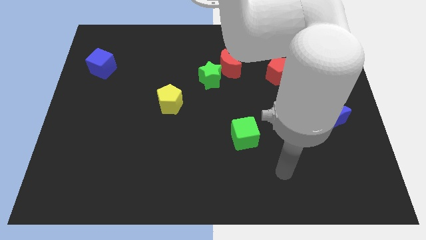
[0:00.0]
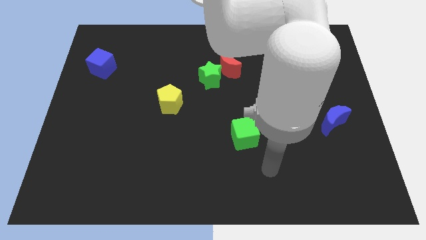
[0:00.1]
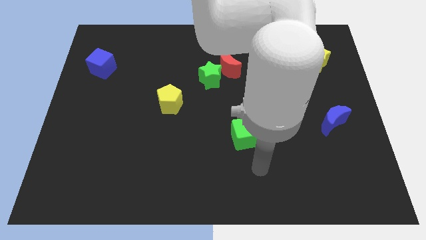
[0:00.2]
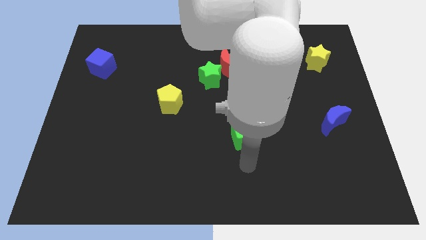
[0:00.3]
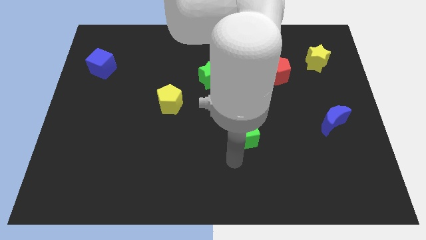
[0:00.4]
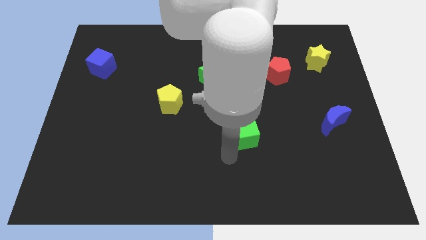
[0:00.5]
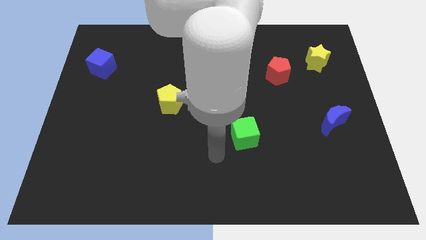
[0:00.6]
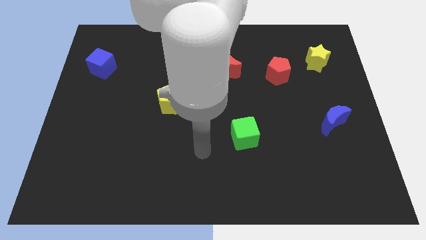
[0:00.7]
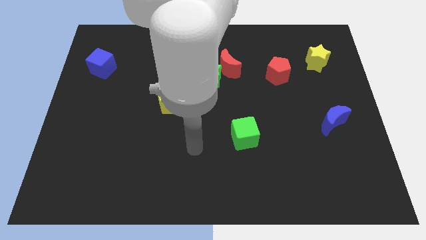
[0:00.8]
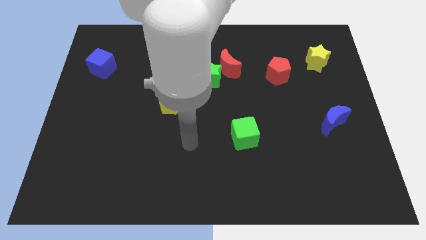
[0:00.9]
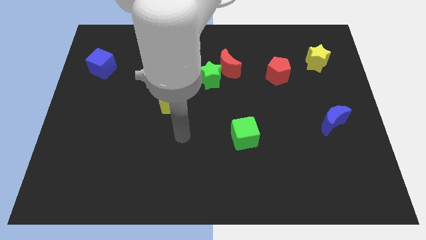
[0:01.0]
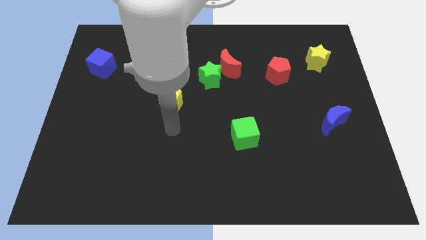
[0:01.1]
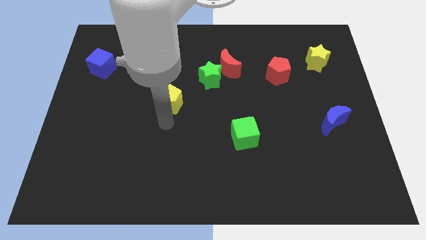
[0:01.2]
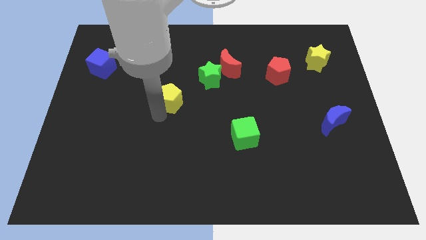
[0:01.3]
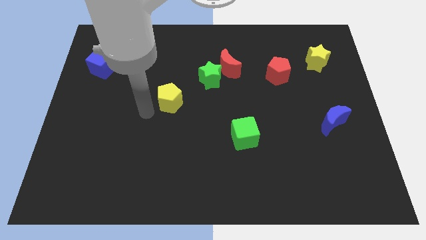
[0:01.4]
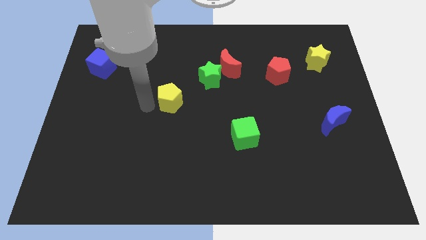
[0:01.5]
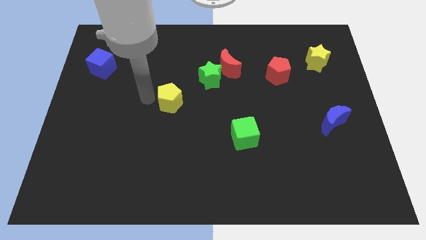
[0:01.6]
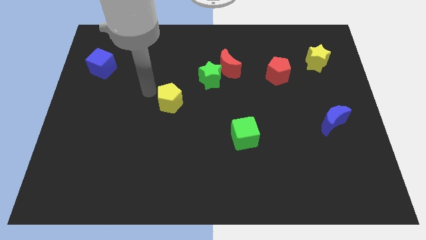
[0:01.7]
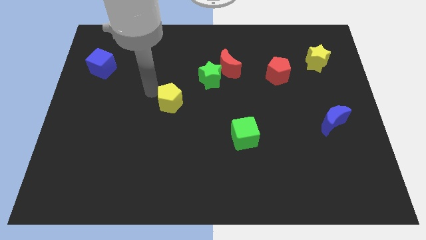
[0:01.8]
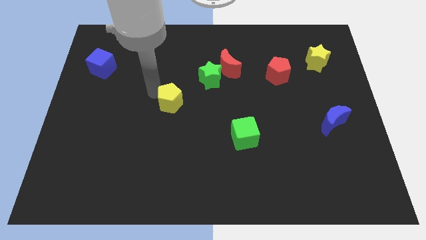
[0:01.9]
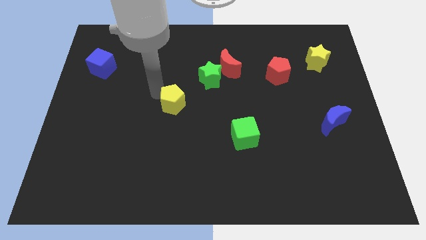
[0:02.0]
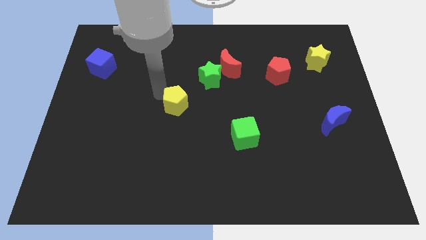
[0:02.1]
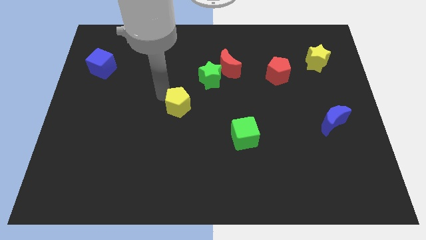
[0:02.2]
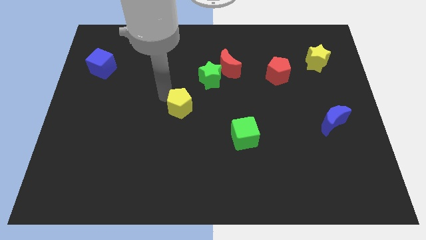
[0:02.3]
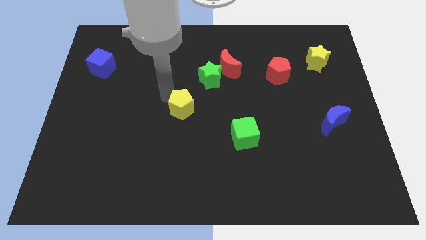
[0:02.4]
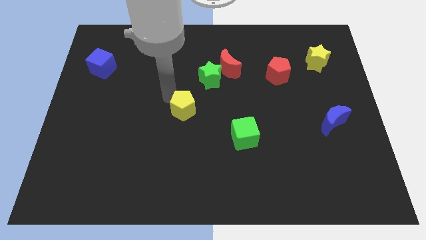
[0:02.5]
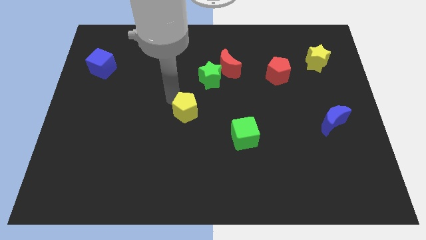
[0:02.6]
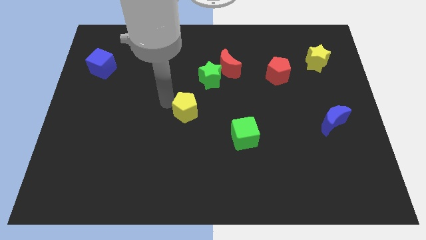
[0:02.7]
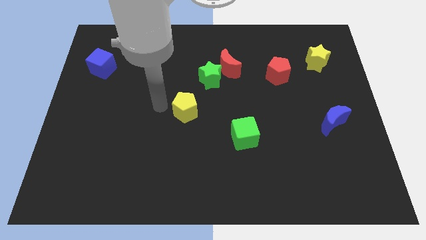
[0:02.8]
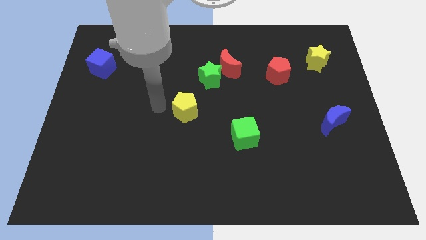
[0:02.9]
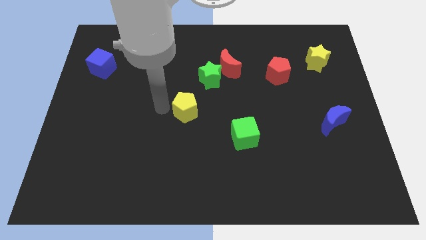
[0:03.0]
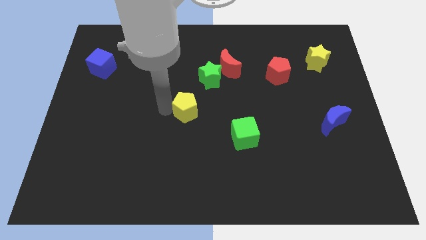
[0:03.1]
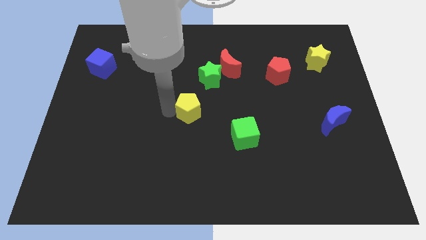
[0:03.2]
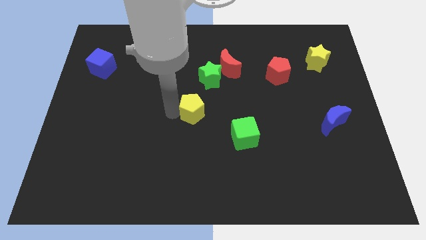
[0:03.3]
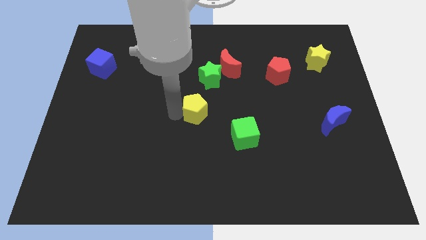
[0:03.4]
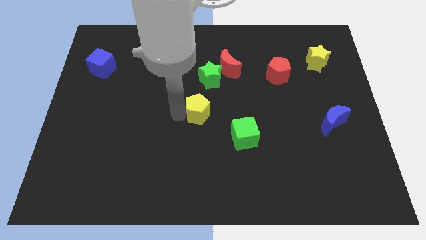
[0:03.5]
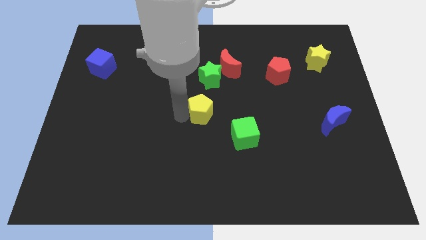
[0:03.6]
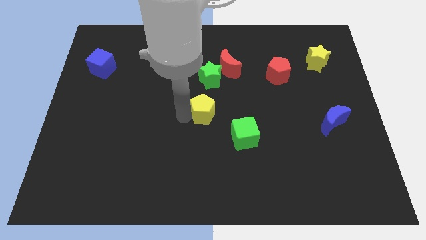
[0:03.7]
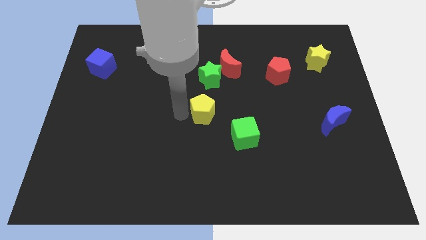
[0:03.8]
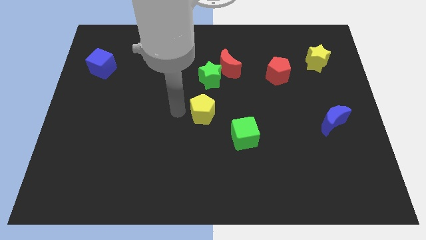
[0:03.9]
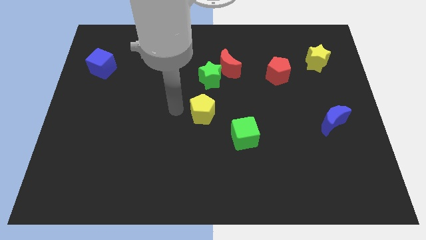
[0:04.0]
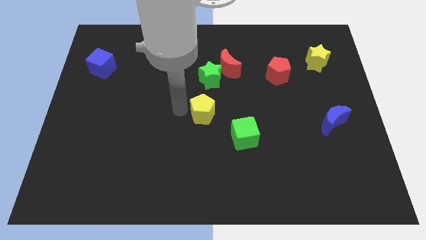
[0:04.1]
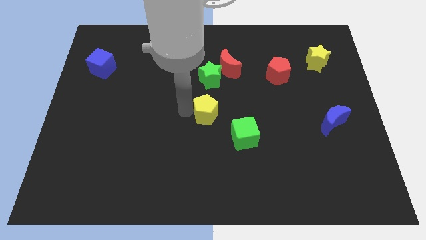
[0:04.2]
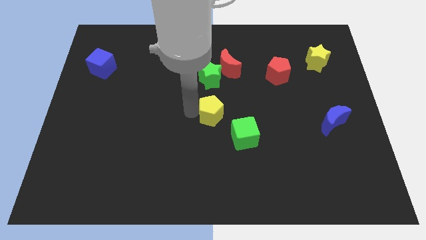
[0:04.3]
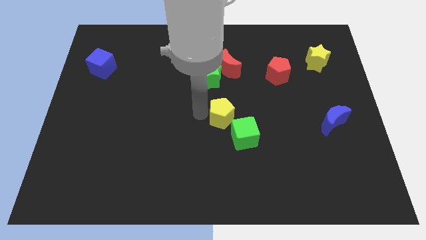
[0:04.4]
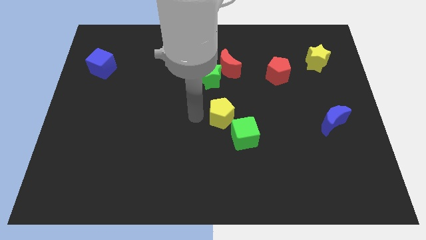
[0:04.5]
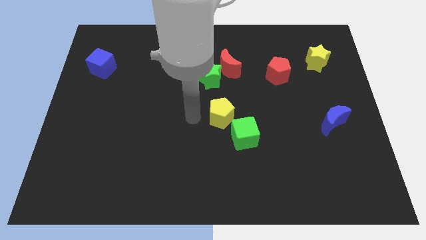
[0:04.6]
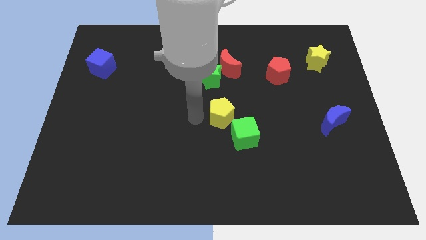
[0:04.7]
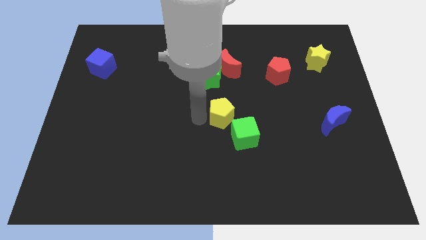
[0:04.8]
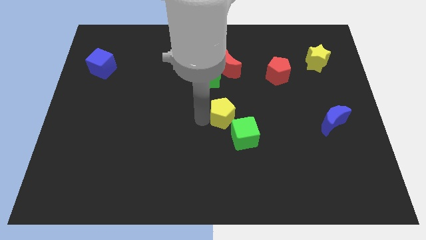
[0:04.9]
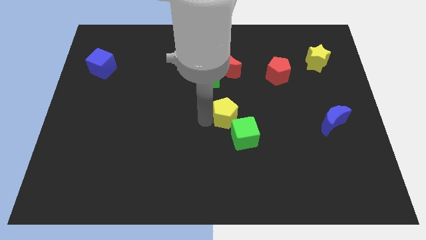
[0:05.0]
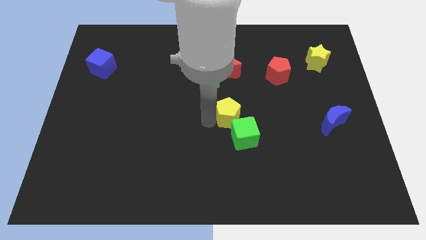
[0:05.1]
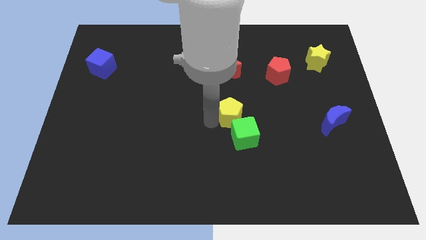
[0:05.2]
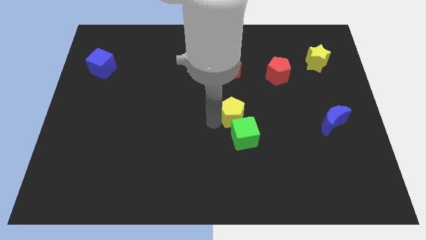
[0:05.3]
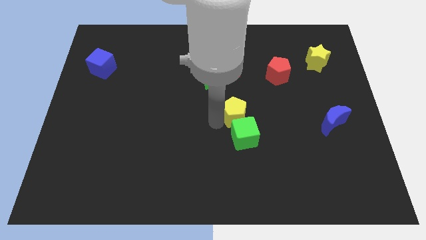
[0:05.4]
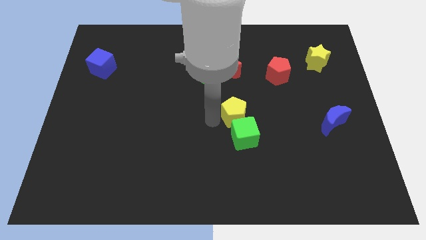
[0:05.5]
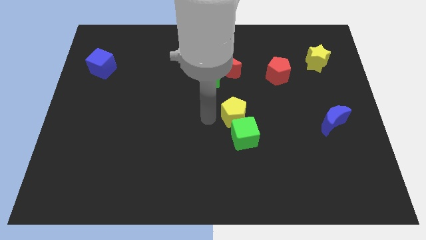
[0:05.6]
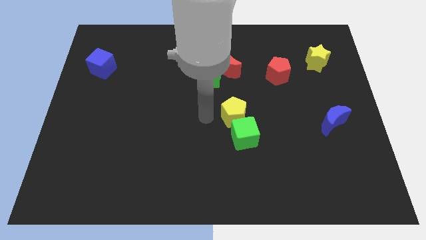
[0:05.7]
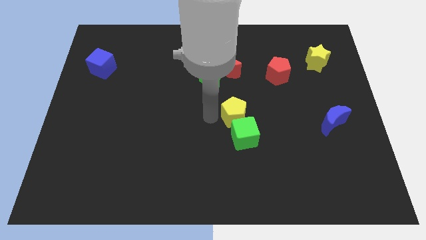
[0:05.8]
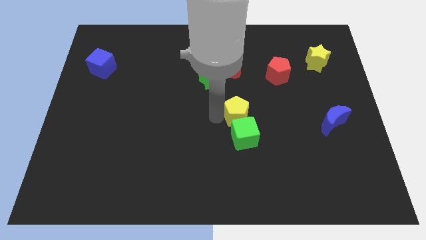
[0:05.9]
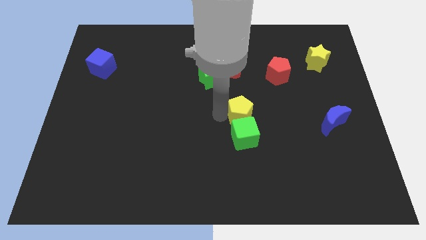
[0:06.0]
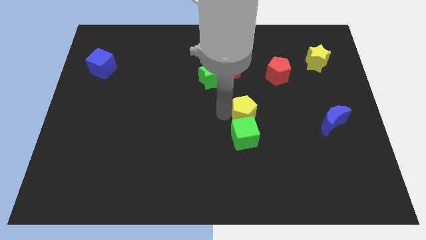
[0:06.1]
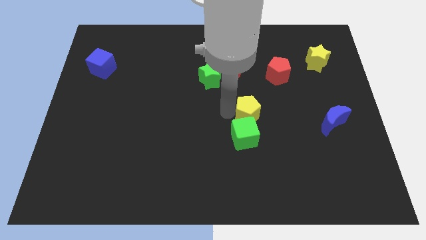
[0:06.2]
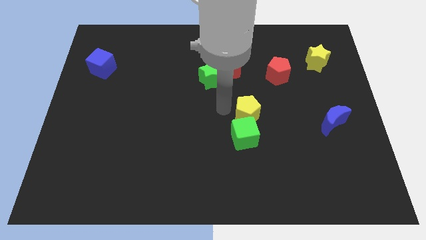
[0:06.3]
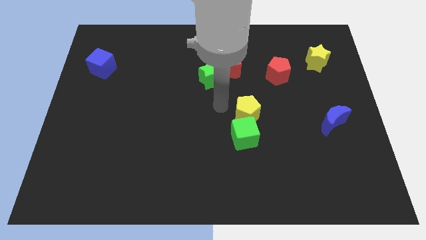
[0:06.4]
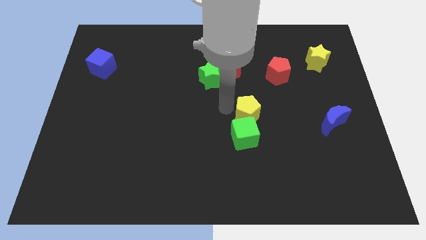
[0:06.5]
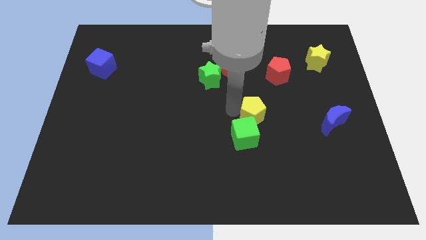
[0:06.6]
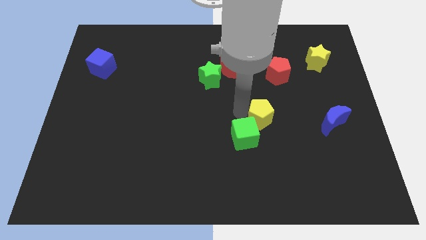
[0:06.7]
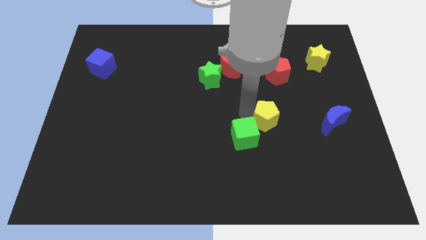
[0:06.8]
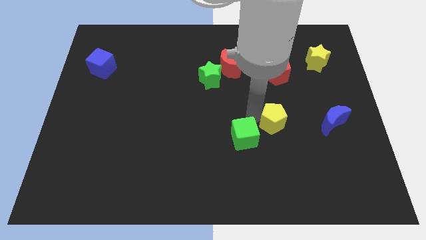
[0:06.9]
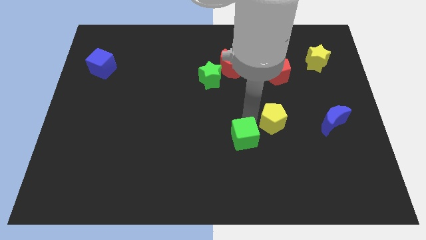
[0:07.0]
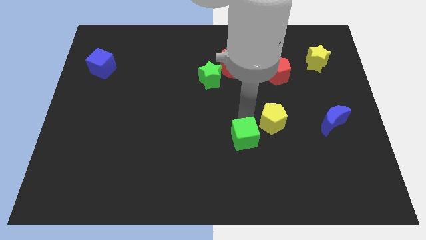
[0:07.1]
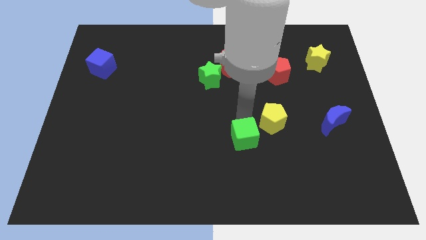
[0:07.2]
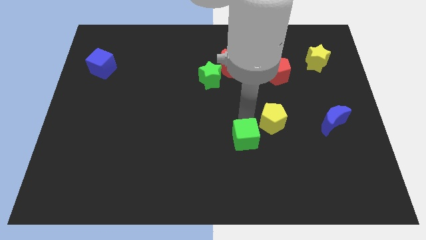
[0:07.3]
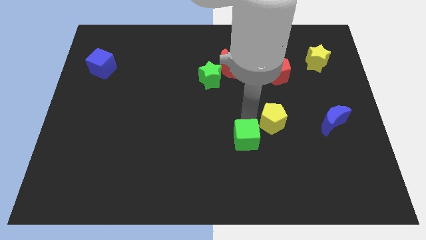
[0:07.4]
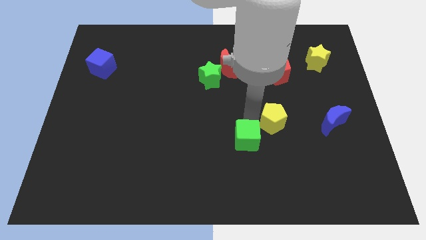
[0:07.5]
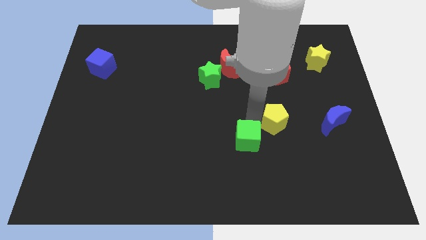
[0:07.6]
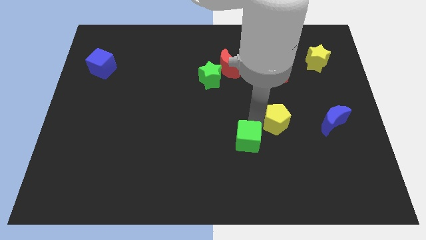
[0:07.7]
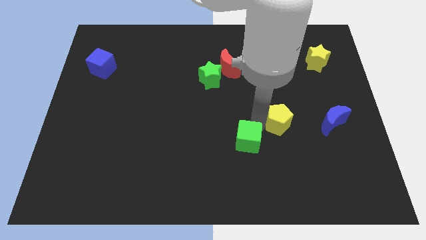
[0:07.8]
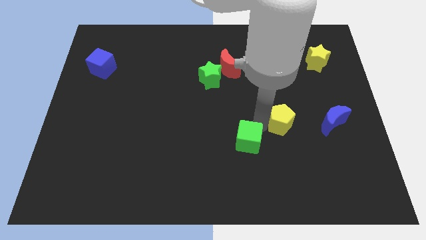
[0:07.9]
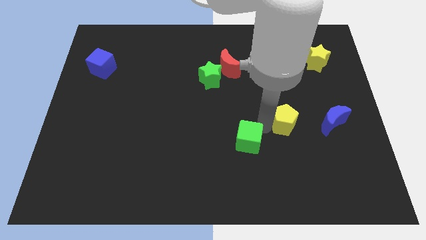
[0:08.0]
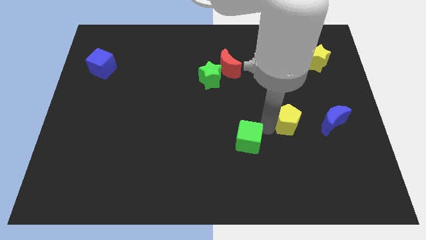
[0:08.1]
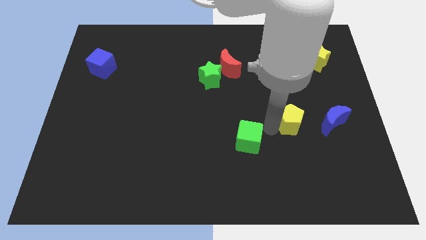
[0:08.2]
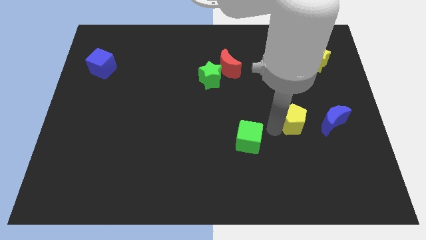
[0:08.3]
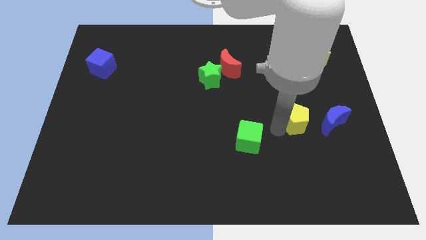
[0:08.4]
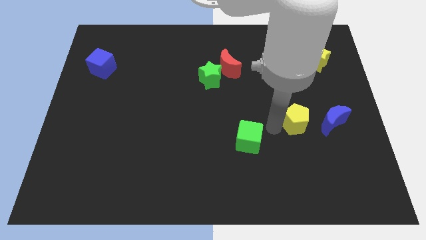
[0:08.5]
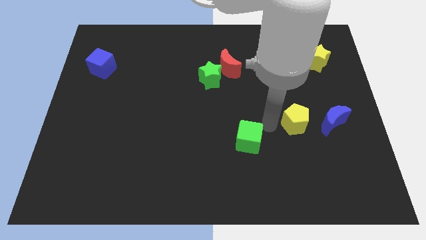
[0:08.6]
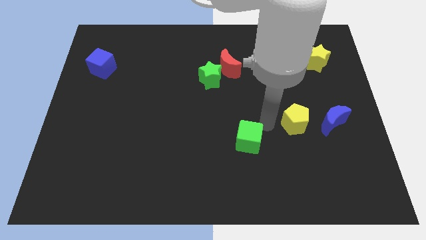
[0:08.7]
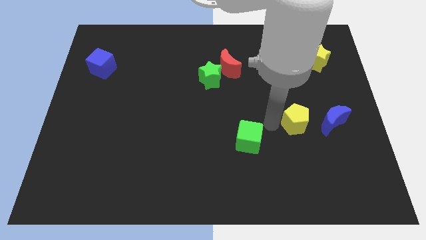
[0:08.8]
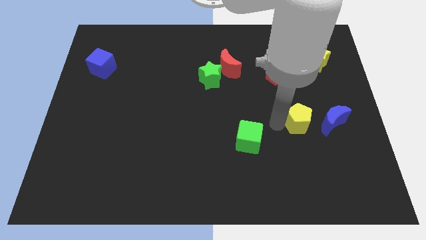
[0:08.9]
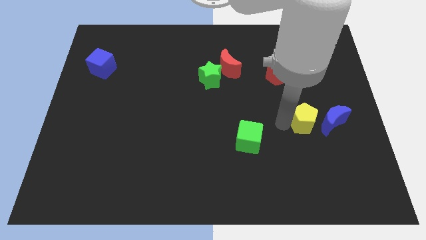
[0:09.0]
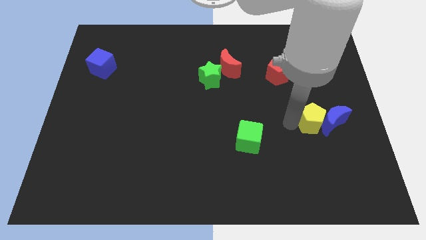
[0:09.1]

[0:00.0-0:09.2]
slide the yellow pentagon close to the blue moon
